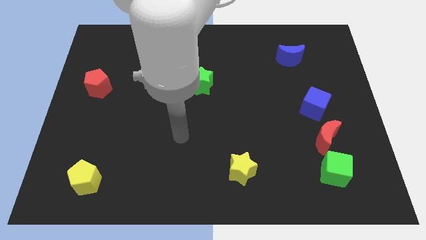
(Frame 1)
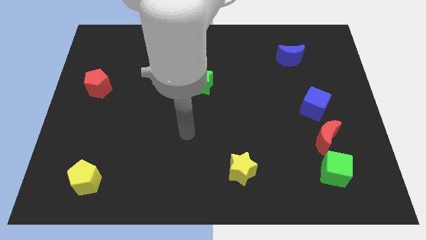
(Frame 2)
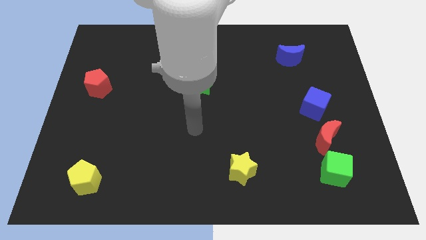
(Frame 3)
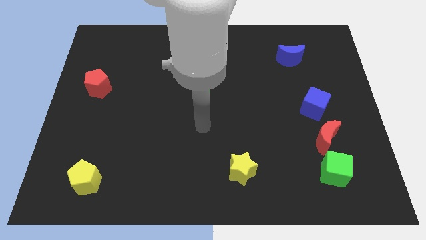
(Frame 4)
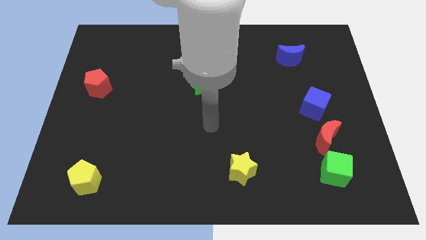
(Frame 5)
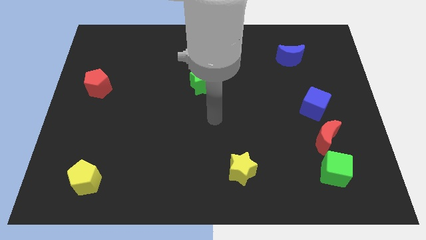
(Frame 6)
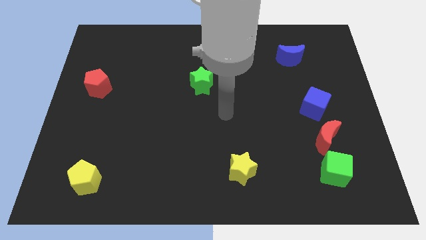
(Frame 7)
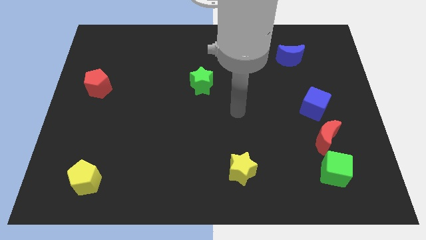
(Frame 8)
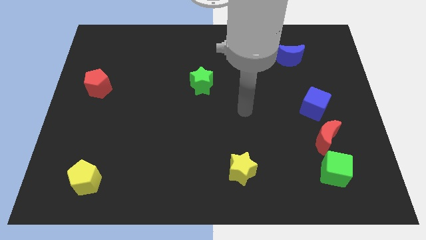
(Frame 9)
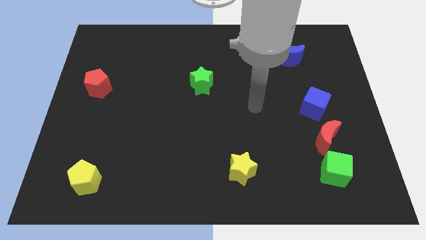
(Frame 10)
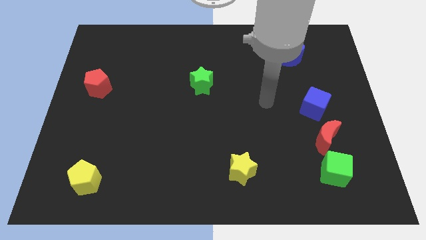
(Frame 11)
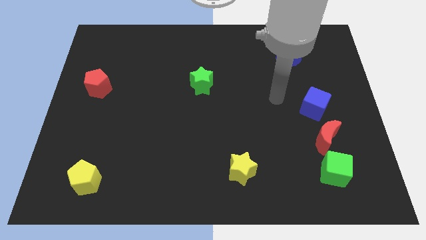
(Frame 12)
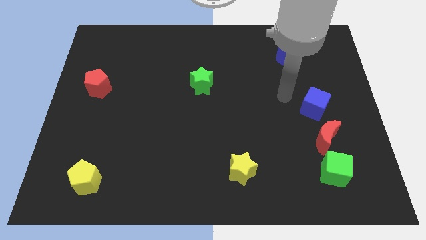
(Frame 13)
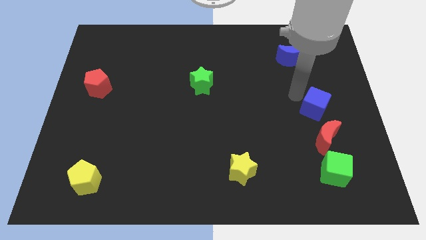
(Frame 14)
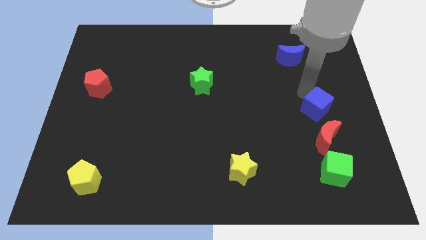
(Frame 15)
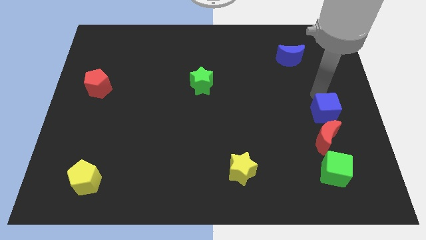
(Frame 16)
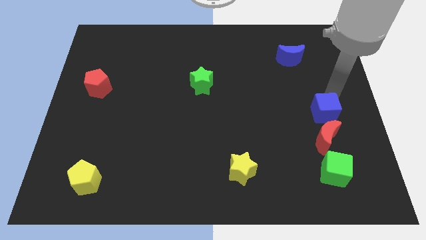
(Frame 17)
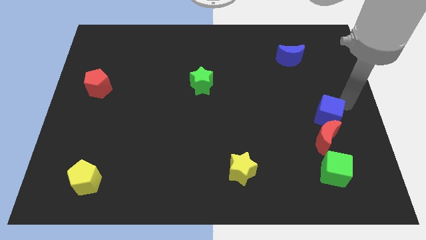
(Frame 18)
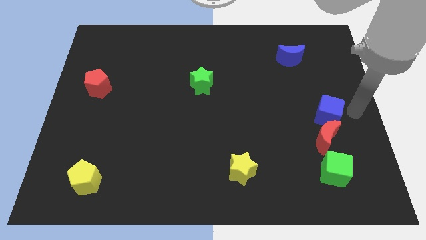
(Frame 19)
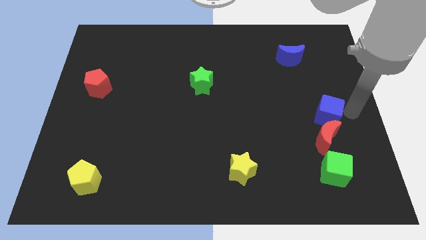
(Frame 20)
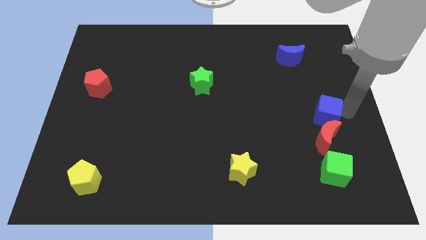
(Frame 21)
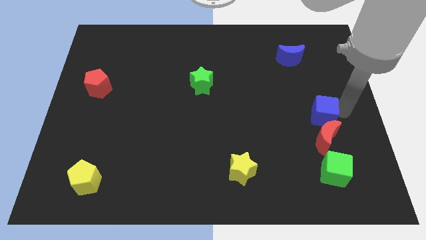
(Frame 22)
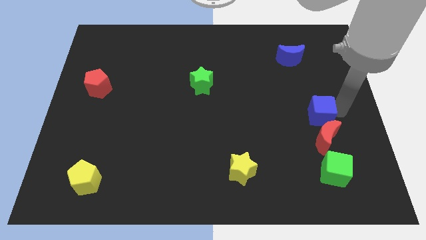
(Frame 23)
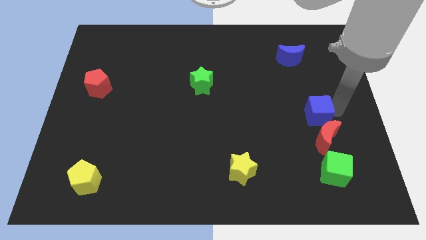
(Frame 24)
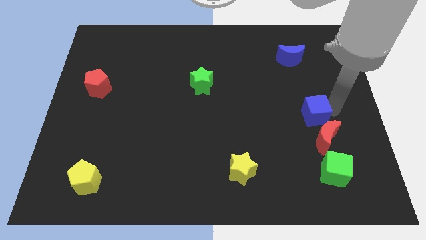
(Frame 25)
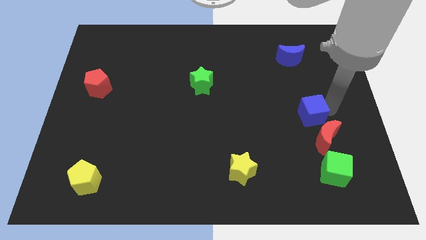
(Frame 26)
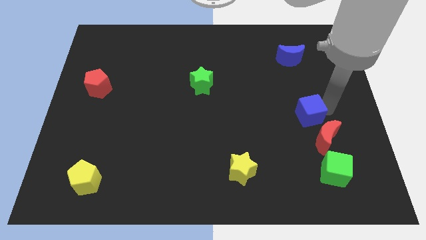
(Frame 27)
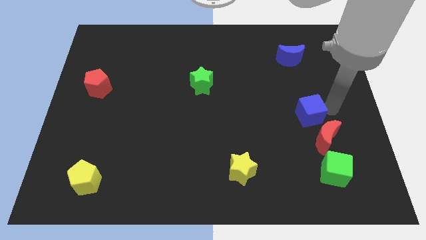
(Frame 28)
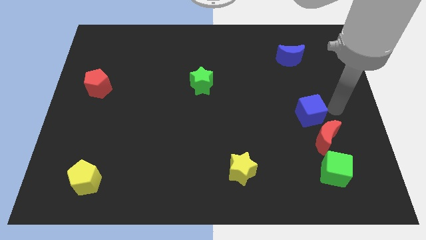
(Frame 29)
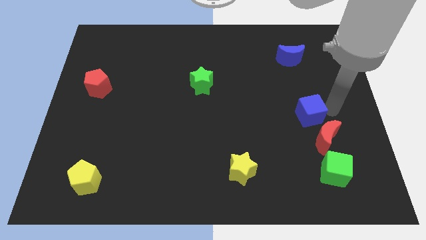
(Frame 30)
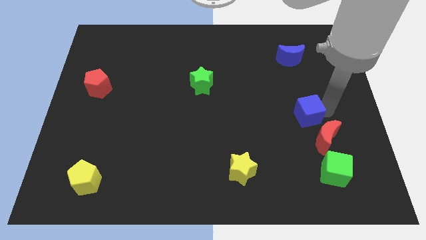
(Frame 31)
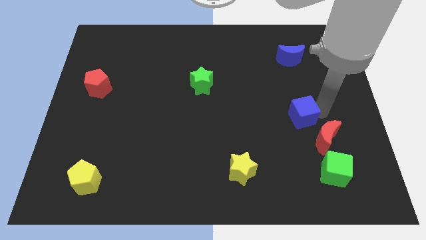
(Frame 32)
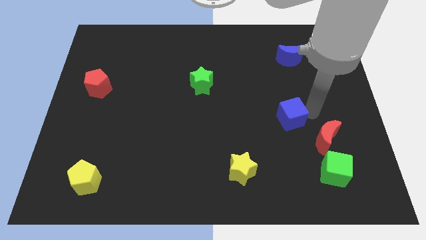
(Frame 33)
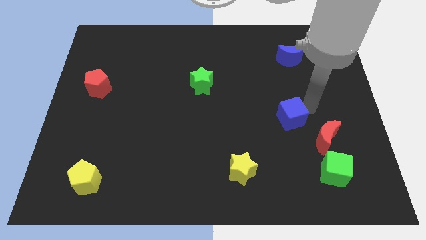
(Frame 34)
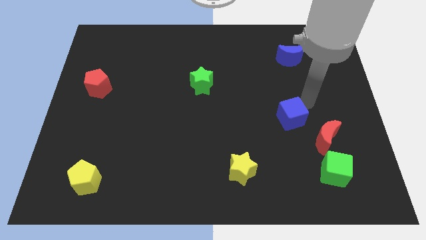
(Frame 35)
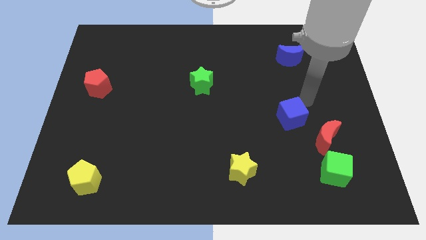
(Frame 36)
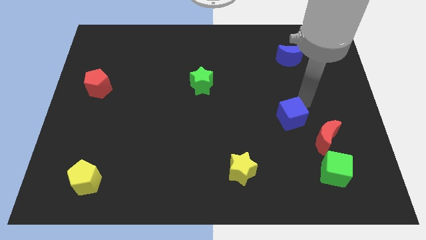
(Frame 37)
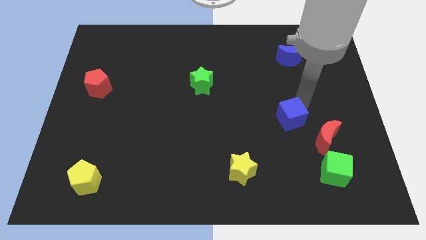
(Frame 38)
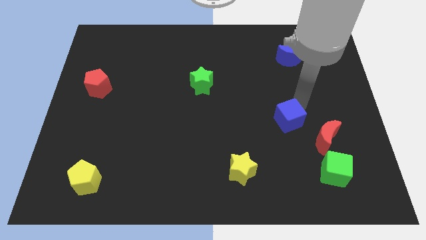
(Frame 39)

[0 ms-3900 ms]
slightly push the blue cube down and left

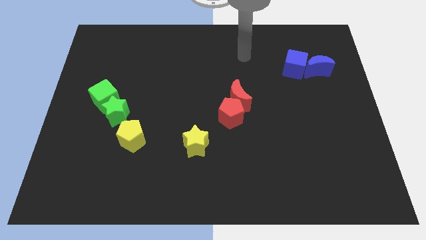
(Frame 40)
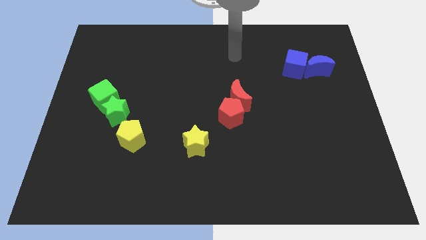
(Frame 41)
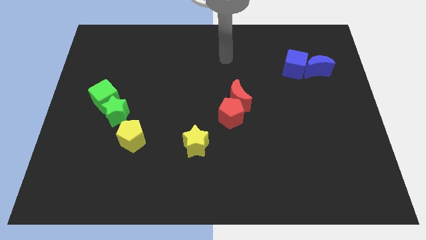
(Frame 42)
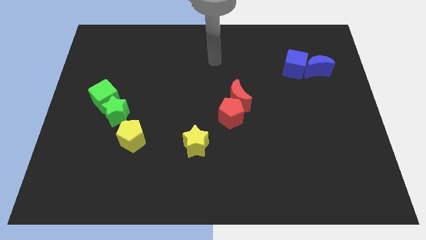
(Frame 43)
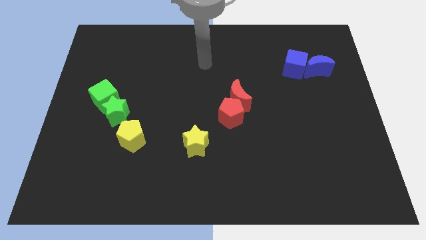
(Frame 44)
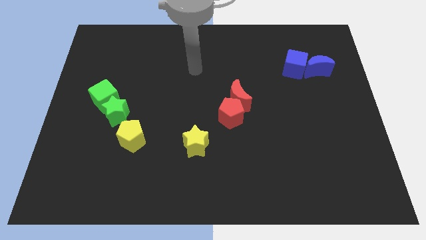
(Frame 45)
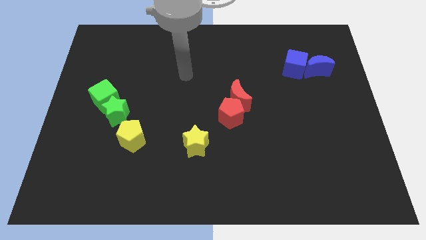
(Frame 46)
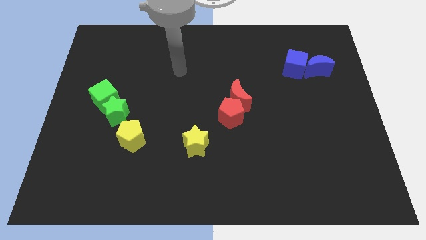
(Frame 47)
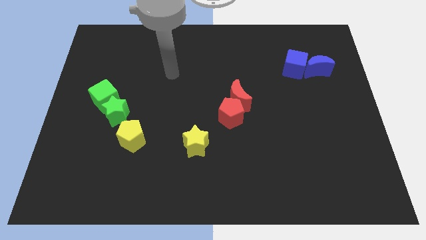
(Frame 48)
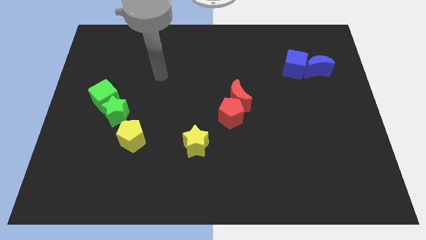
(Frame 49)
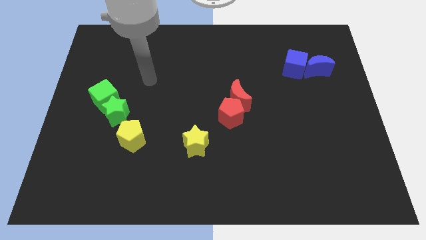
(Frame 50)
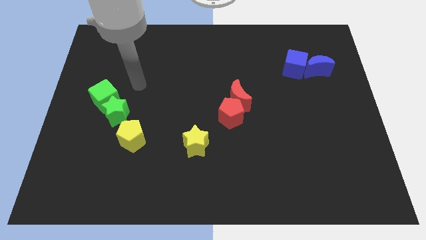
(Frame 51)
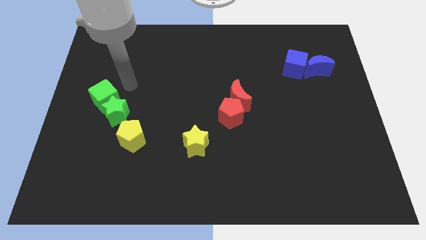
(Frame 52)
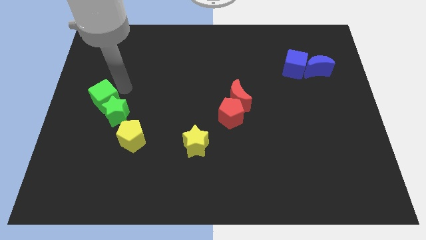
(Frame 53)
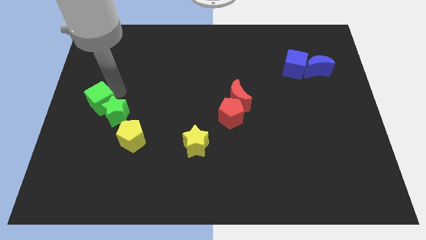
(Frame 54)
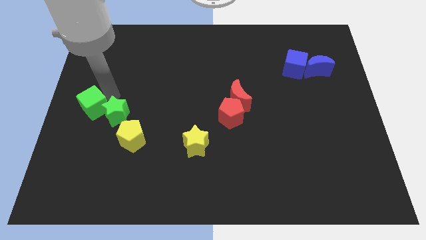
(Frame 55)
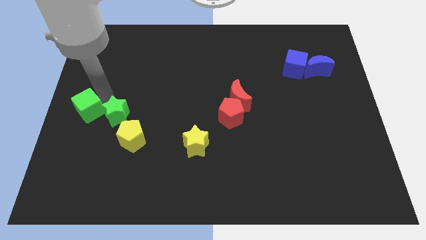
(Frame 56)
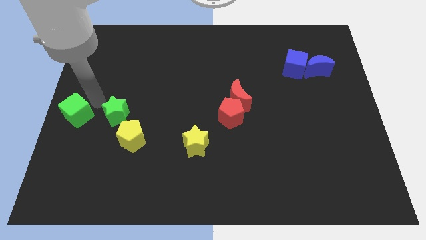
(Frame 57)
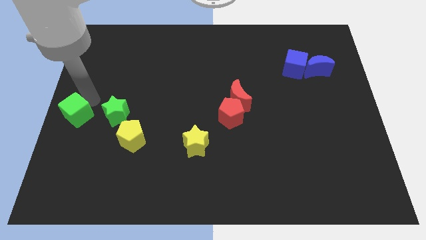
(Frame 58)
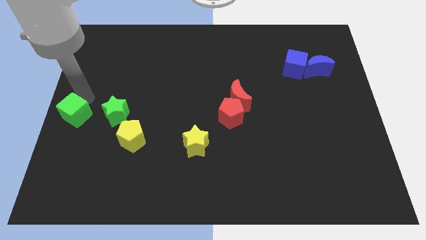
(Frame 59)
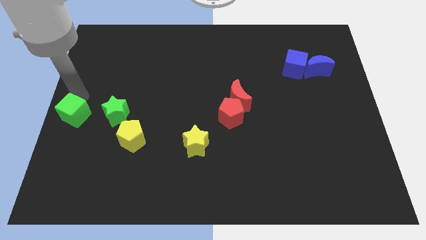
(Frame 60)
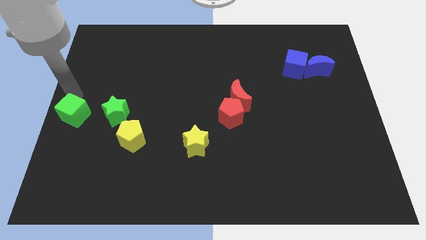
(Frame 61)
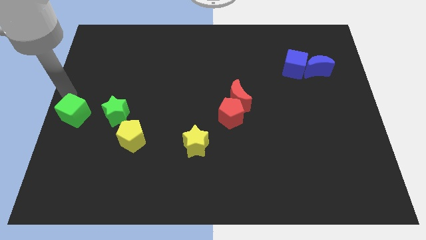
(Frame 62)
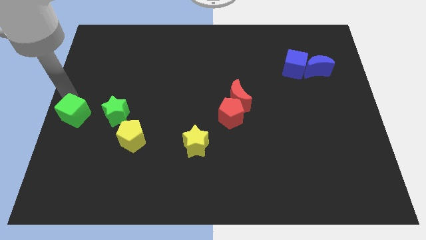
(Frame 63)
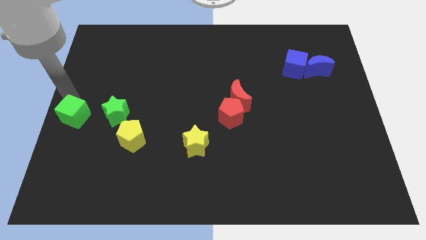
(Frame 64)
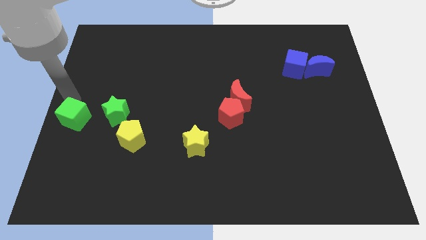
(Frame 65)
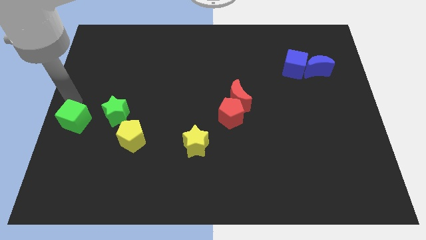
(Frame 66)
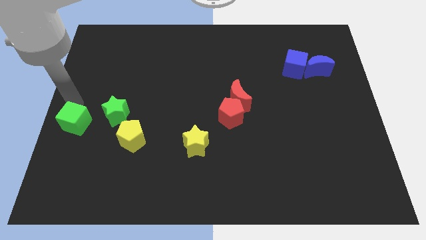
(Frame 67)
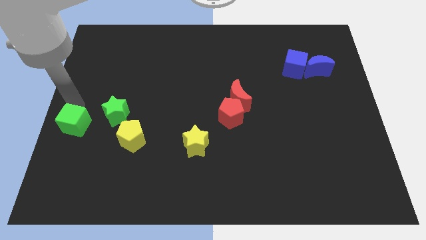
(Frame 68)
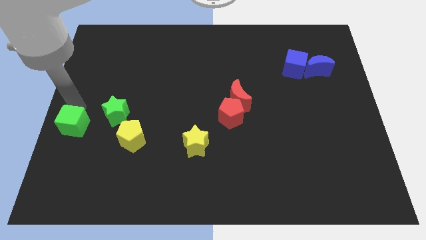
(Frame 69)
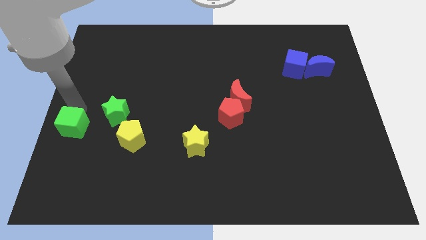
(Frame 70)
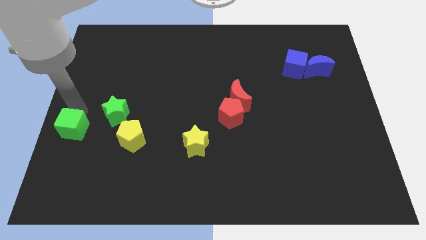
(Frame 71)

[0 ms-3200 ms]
push the green cube down somewhat

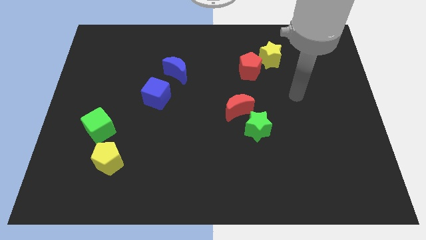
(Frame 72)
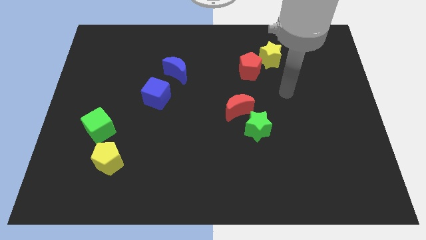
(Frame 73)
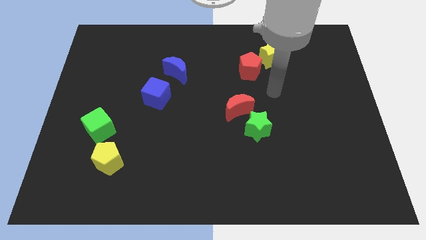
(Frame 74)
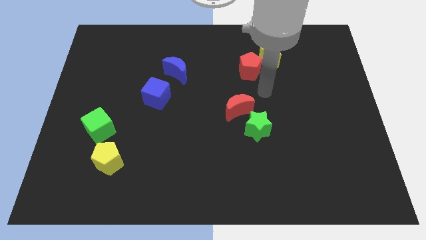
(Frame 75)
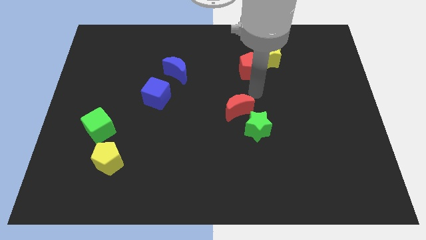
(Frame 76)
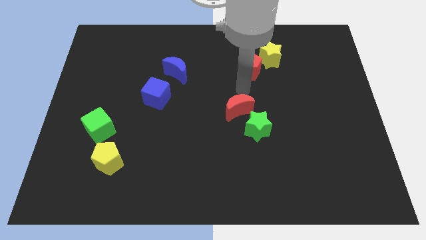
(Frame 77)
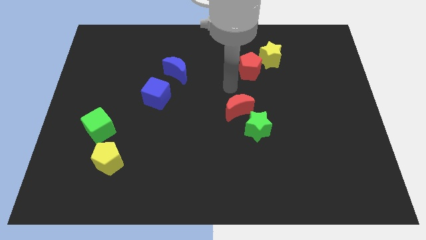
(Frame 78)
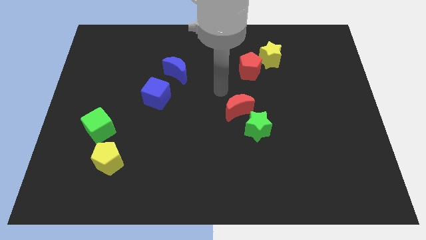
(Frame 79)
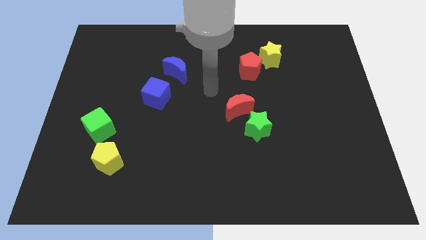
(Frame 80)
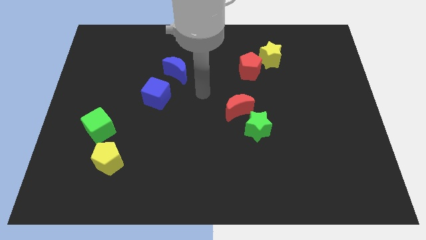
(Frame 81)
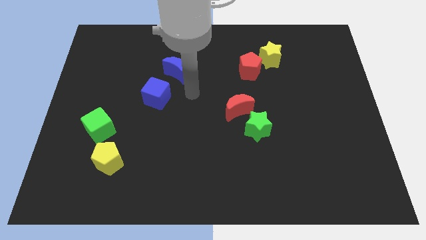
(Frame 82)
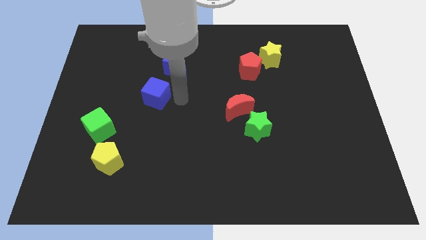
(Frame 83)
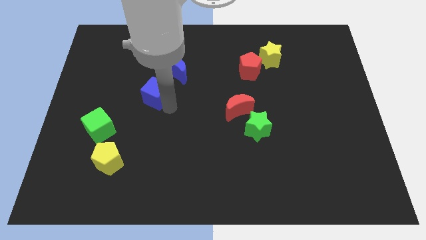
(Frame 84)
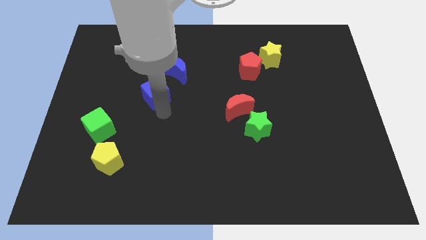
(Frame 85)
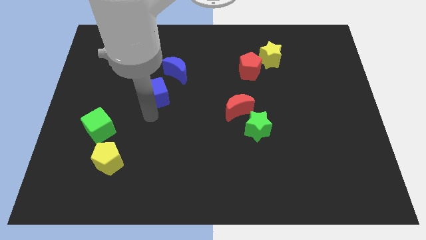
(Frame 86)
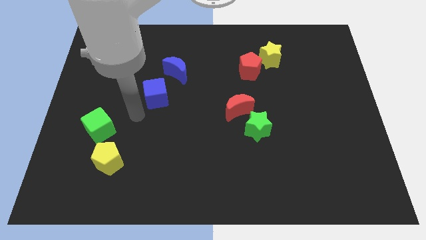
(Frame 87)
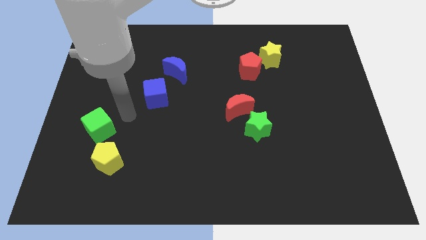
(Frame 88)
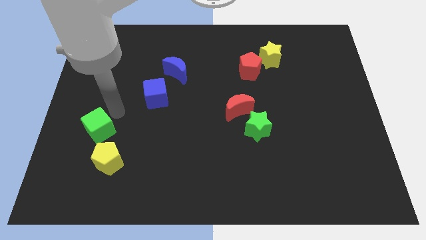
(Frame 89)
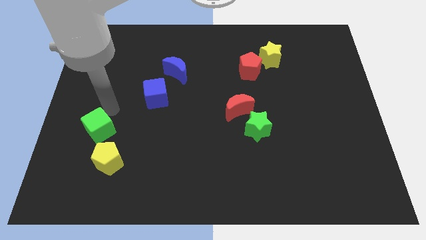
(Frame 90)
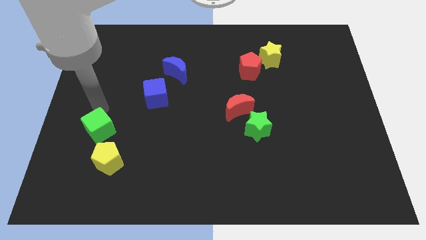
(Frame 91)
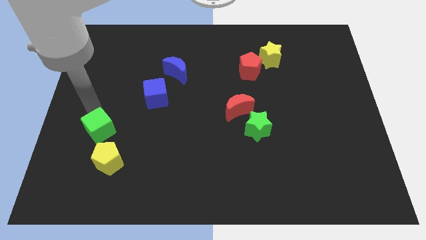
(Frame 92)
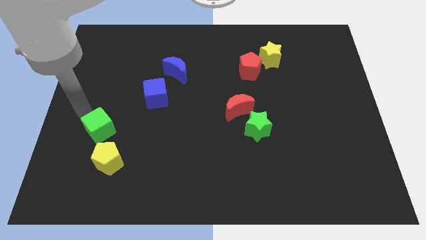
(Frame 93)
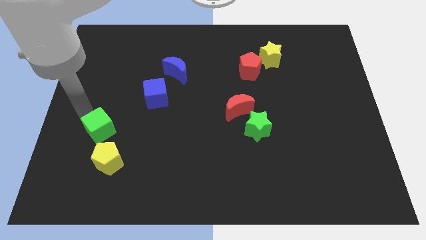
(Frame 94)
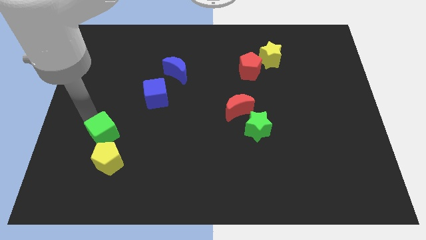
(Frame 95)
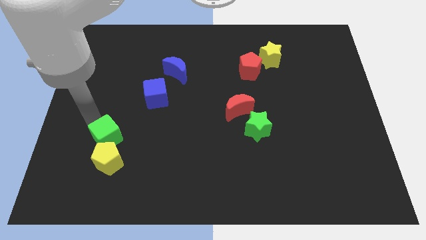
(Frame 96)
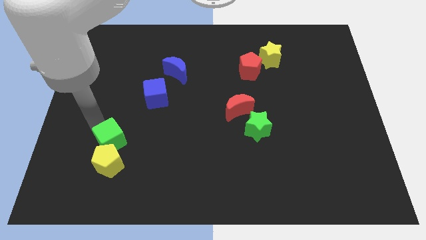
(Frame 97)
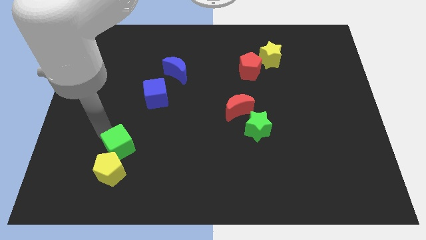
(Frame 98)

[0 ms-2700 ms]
move the green cube a little downwards and to the right
